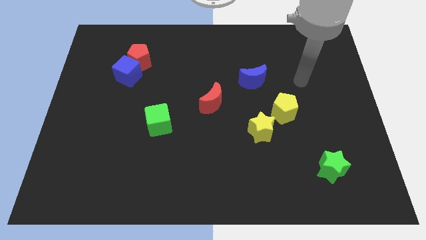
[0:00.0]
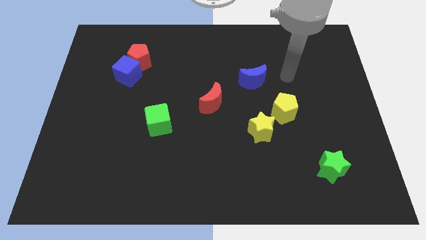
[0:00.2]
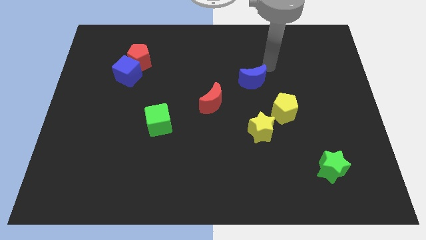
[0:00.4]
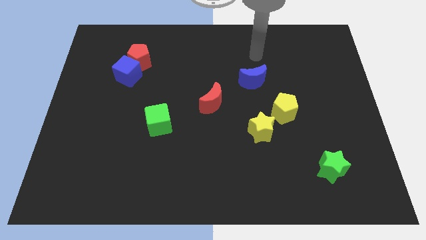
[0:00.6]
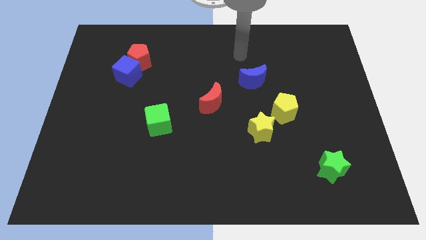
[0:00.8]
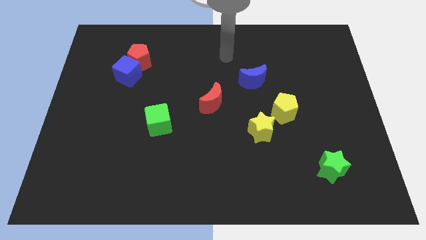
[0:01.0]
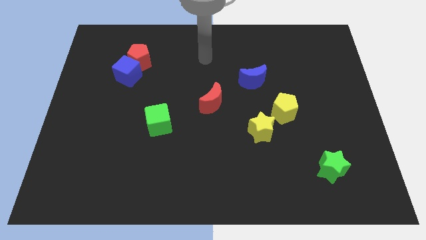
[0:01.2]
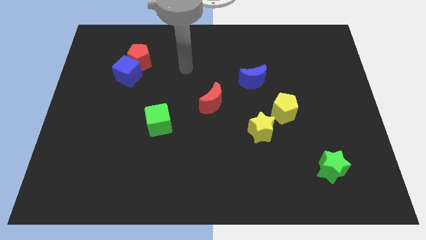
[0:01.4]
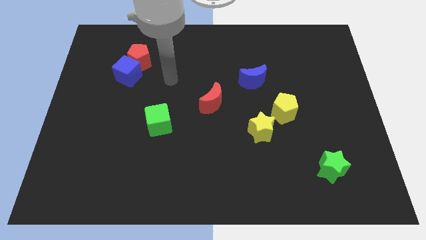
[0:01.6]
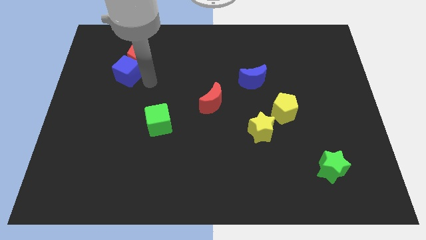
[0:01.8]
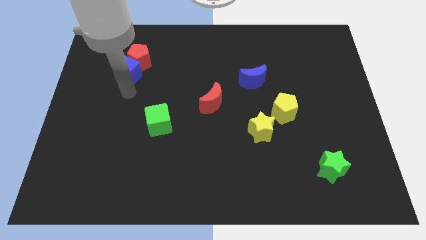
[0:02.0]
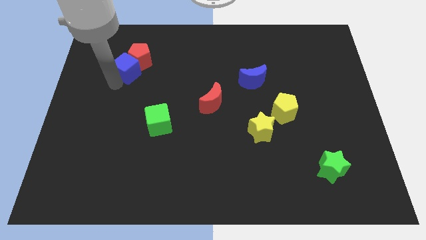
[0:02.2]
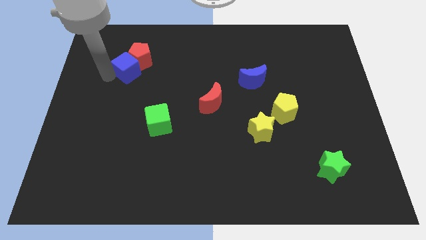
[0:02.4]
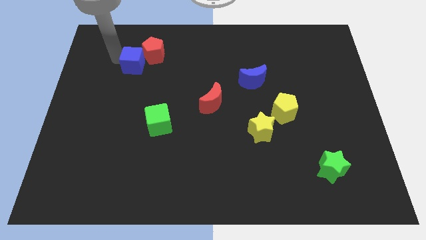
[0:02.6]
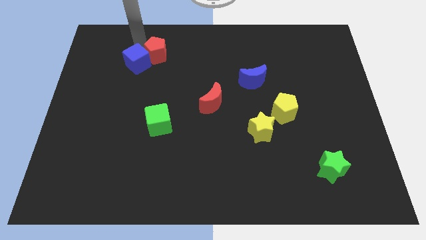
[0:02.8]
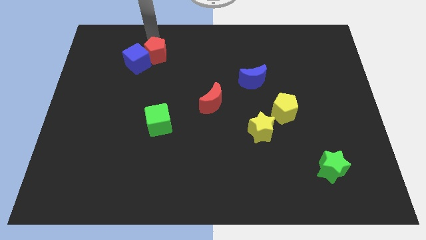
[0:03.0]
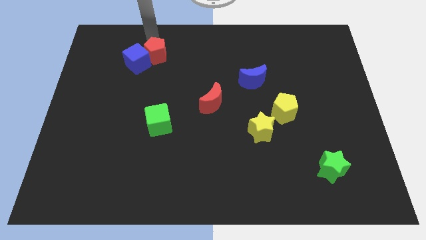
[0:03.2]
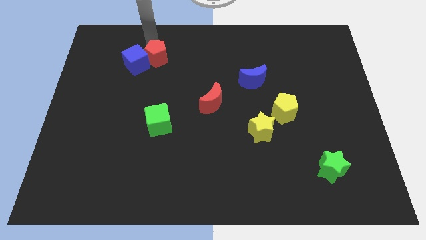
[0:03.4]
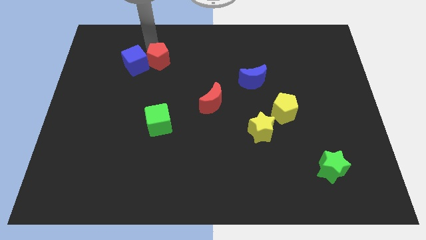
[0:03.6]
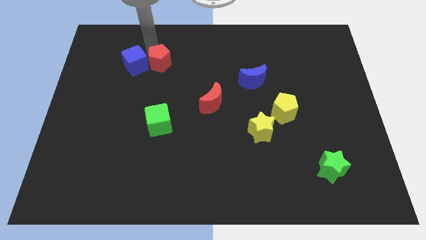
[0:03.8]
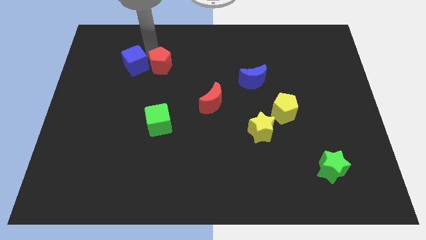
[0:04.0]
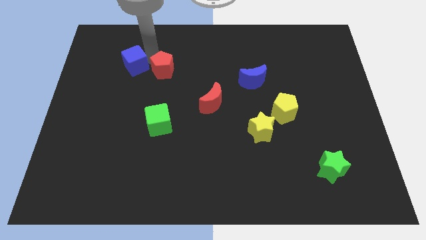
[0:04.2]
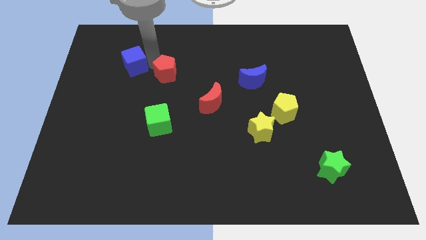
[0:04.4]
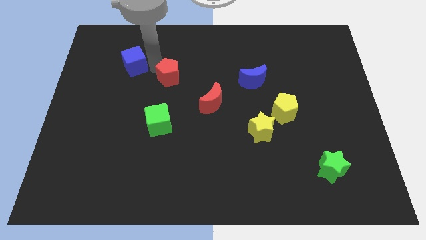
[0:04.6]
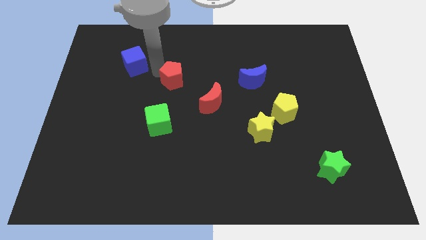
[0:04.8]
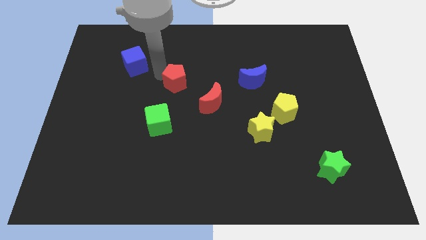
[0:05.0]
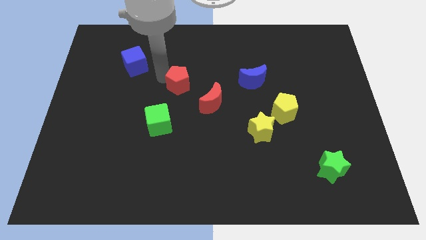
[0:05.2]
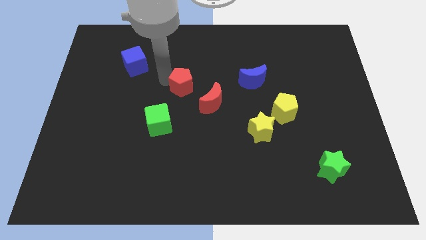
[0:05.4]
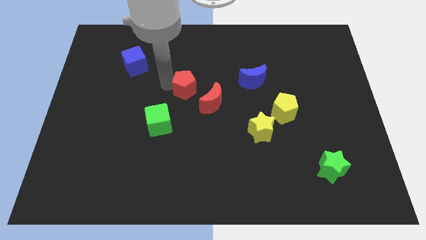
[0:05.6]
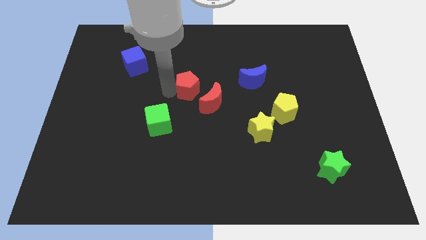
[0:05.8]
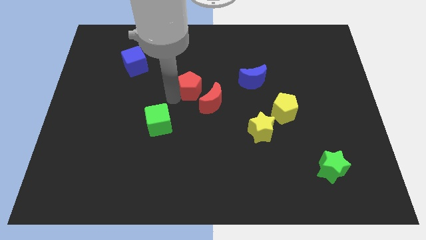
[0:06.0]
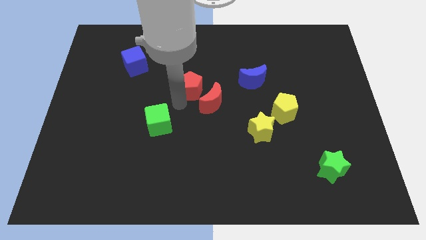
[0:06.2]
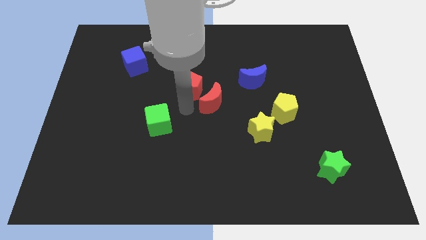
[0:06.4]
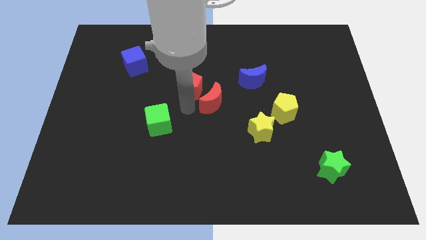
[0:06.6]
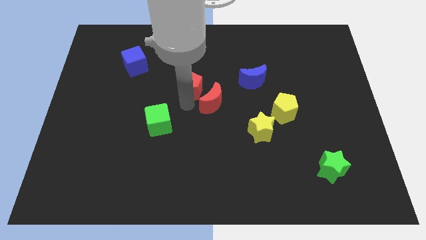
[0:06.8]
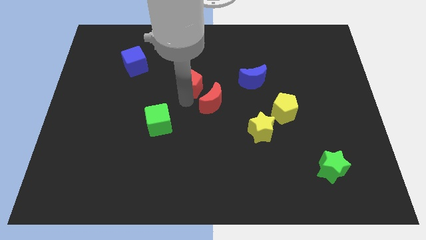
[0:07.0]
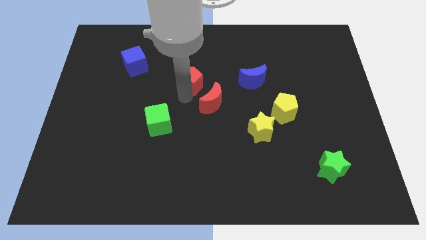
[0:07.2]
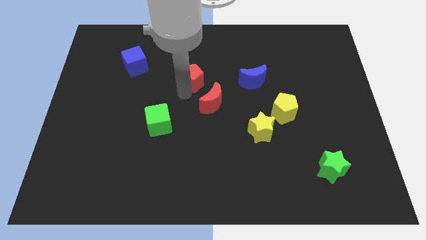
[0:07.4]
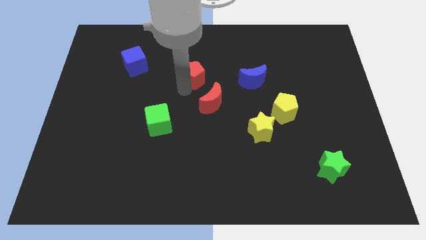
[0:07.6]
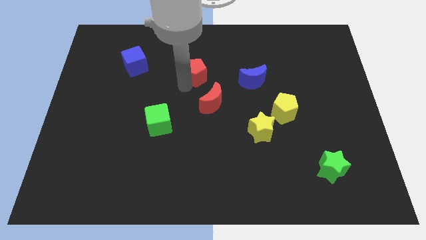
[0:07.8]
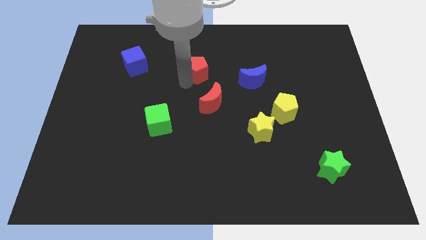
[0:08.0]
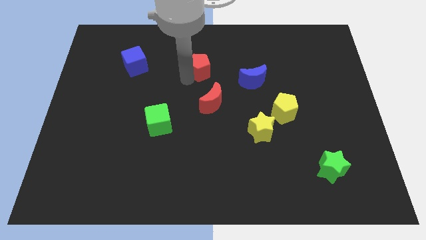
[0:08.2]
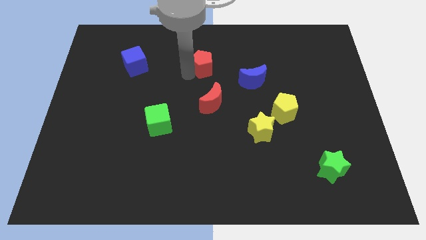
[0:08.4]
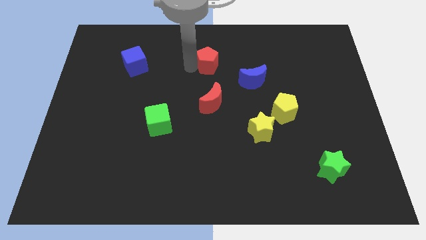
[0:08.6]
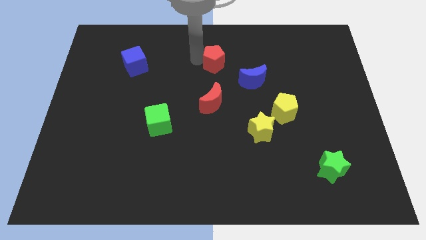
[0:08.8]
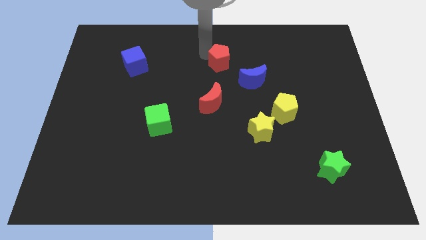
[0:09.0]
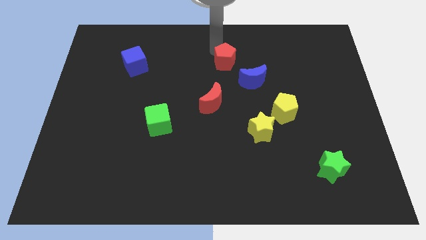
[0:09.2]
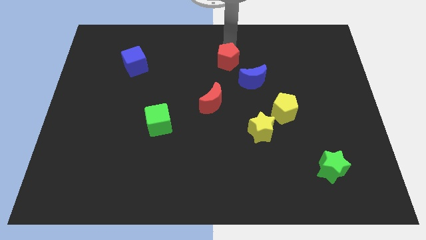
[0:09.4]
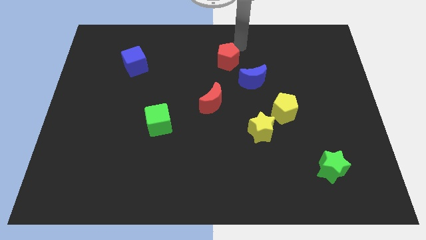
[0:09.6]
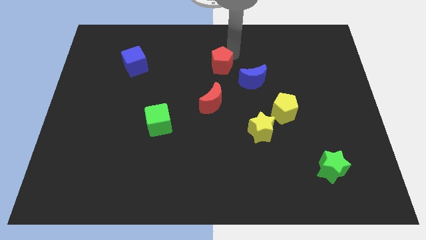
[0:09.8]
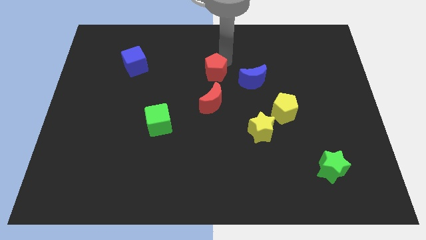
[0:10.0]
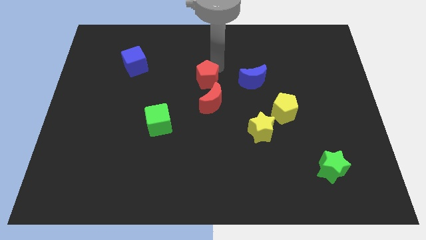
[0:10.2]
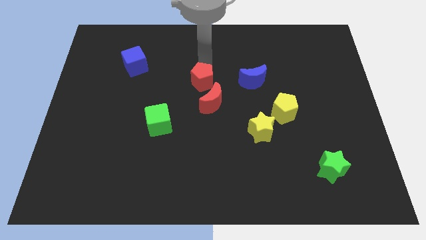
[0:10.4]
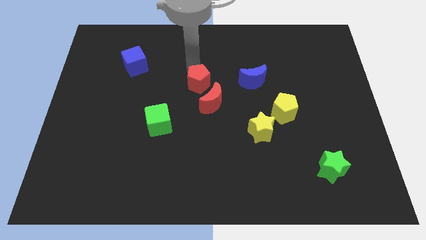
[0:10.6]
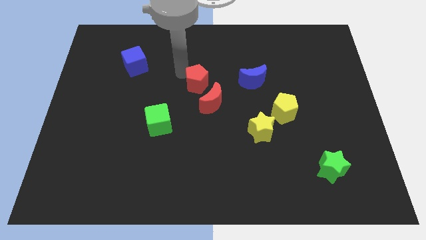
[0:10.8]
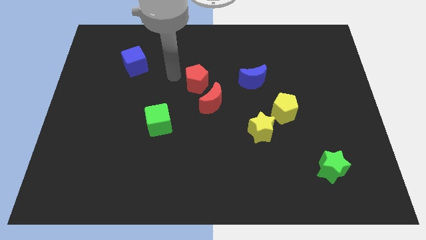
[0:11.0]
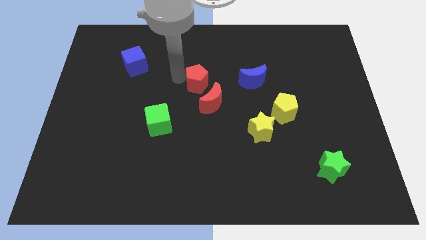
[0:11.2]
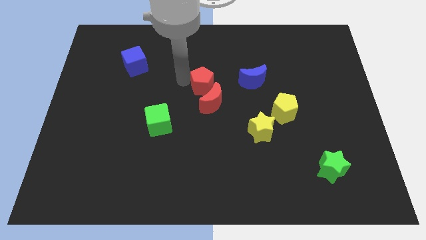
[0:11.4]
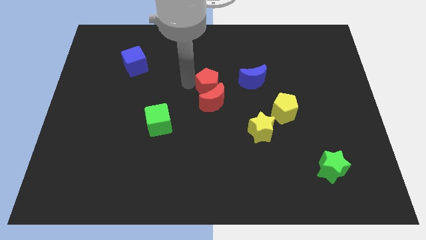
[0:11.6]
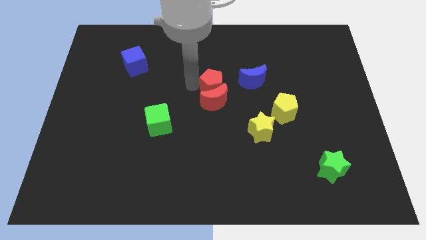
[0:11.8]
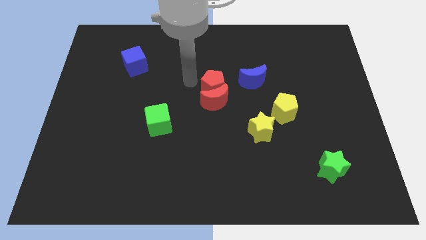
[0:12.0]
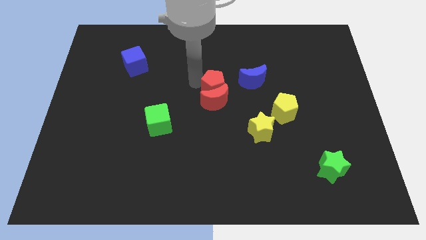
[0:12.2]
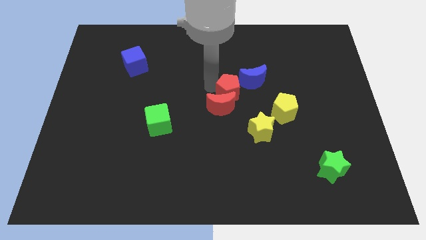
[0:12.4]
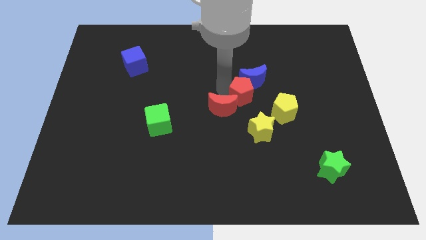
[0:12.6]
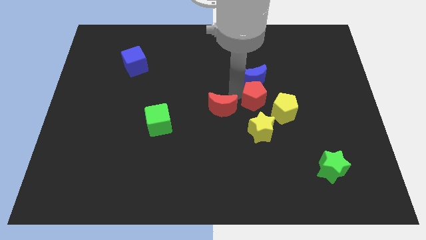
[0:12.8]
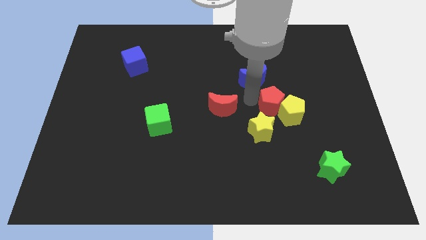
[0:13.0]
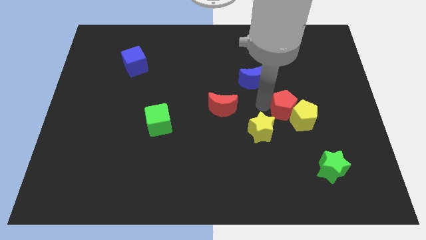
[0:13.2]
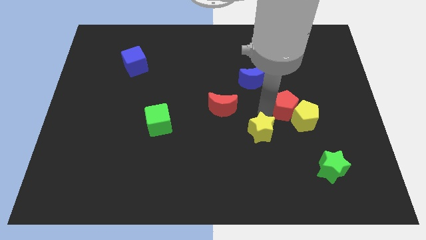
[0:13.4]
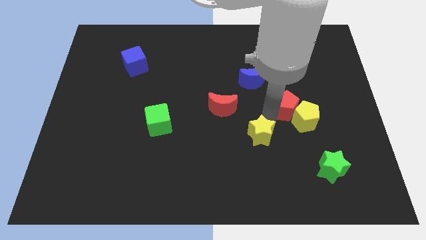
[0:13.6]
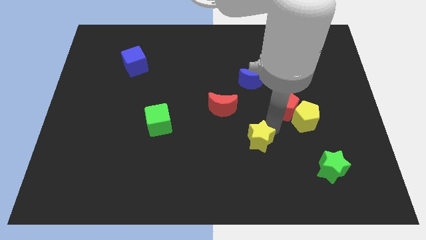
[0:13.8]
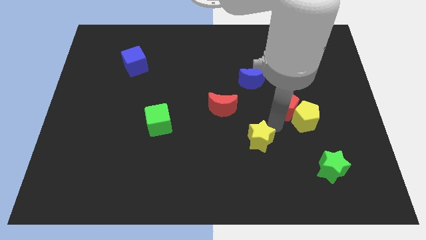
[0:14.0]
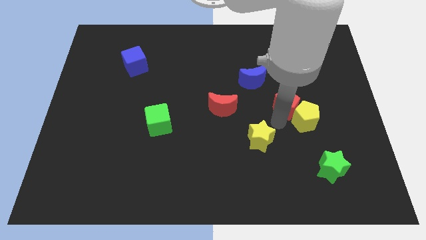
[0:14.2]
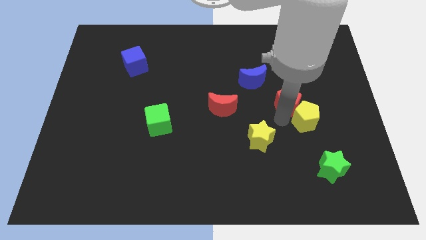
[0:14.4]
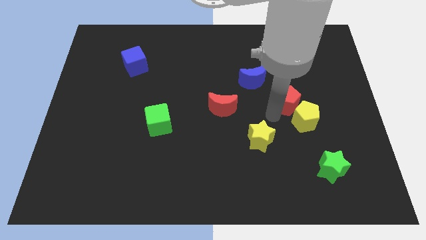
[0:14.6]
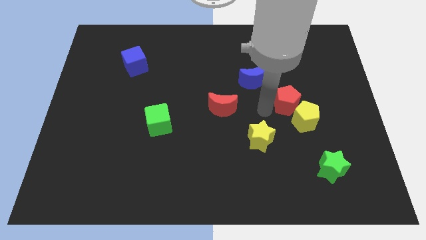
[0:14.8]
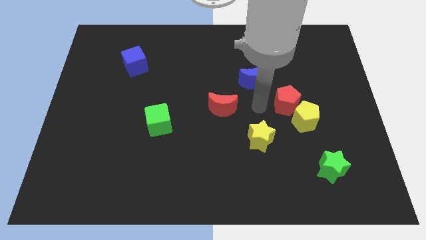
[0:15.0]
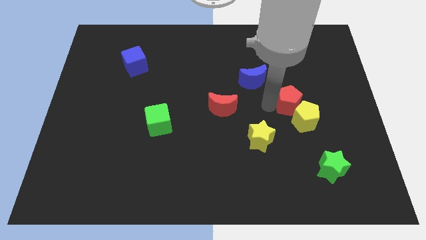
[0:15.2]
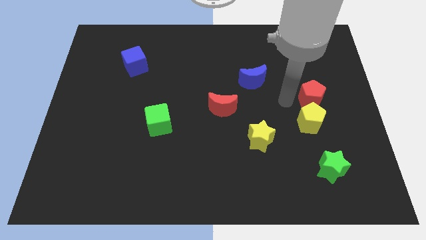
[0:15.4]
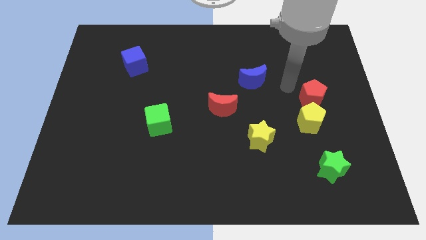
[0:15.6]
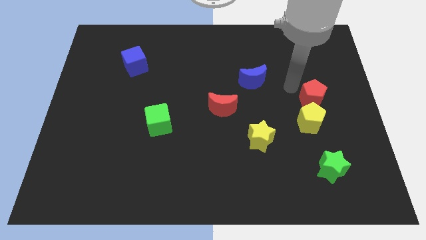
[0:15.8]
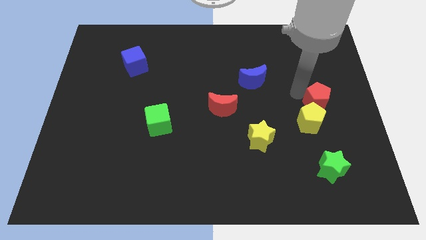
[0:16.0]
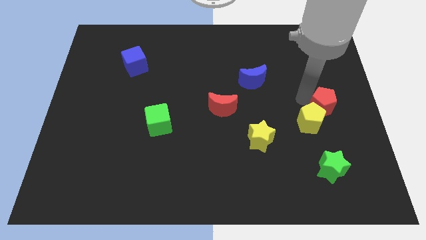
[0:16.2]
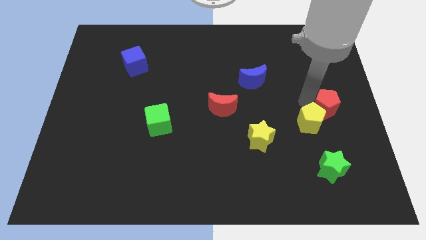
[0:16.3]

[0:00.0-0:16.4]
slide the red pentagon just right of the yellow pentagon

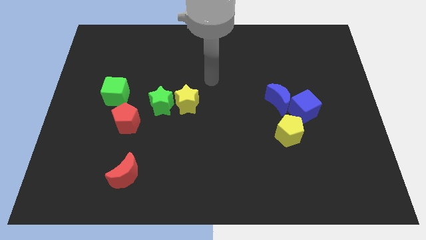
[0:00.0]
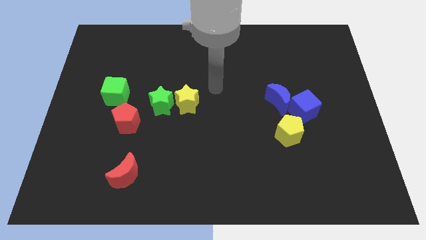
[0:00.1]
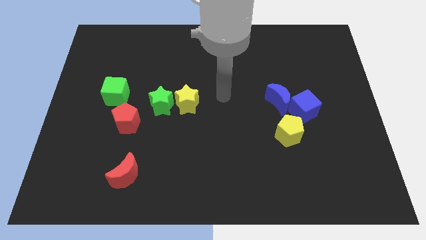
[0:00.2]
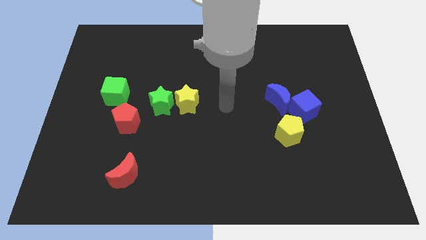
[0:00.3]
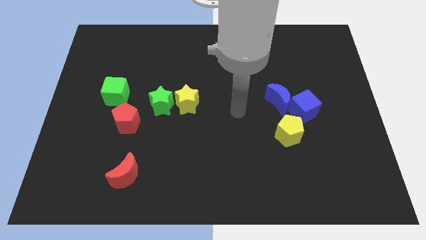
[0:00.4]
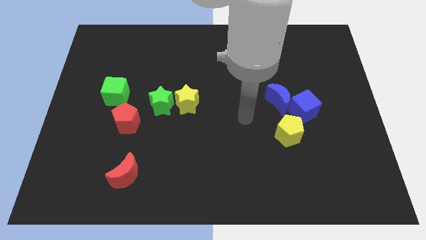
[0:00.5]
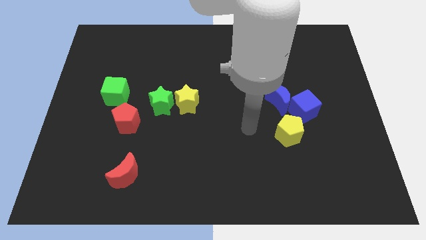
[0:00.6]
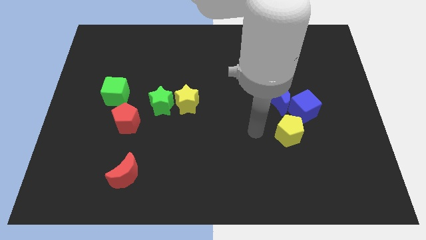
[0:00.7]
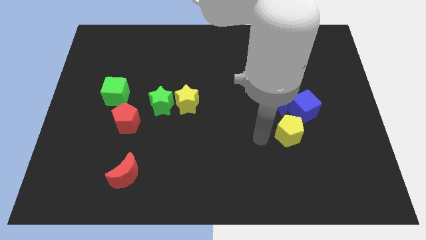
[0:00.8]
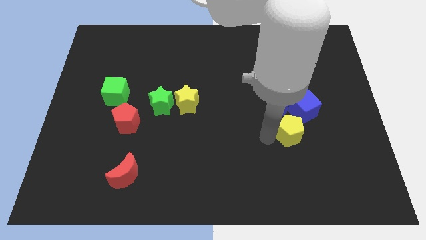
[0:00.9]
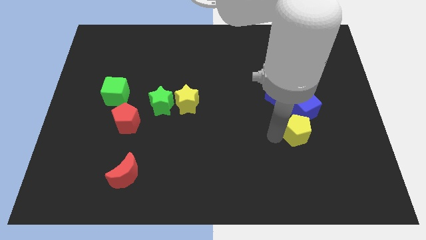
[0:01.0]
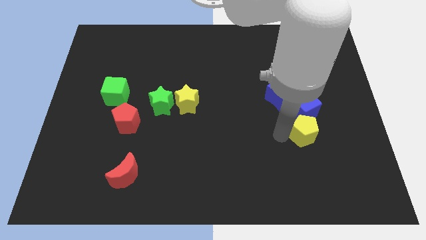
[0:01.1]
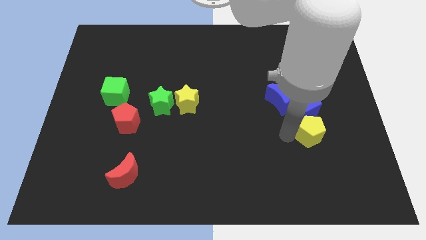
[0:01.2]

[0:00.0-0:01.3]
put the yellow pentagon to the bottom right of the blue cube
